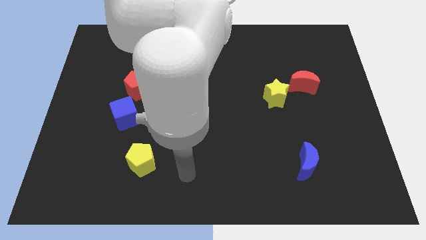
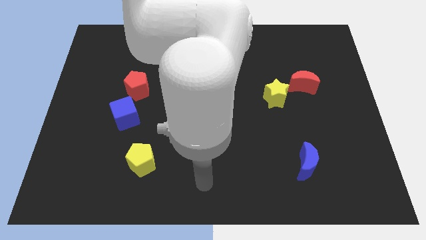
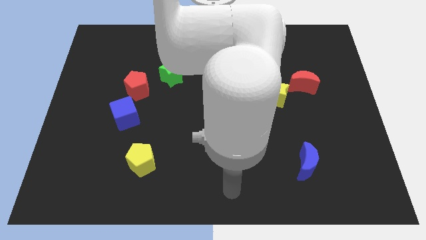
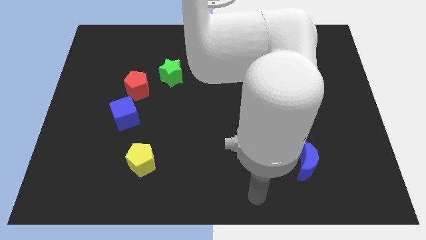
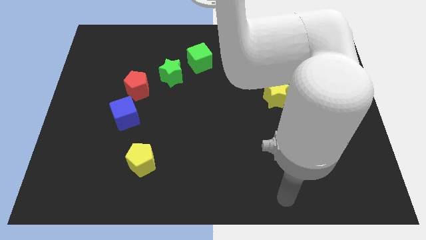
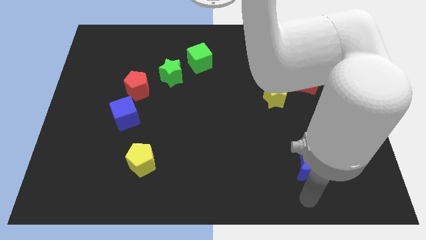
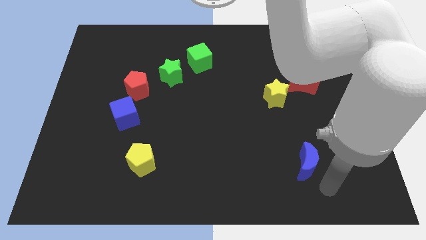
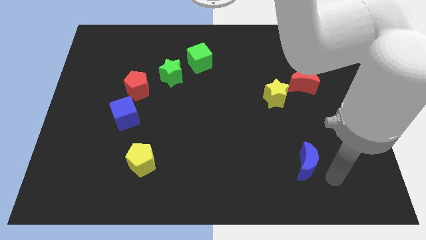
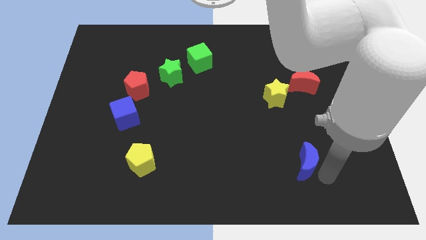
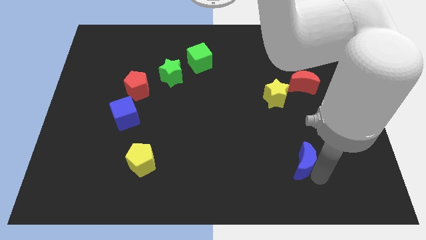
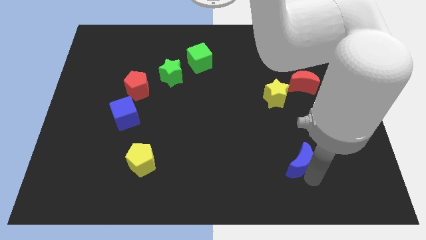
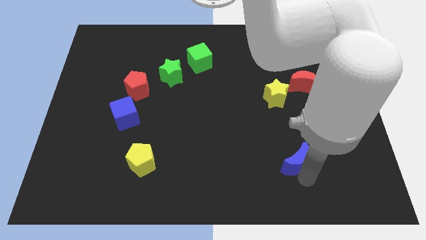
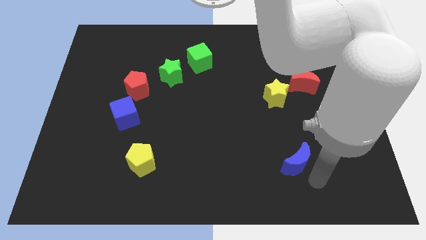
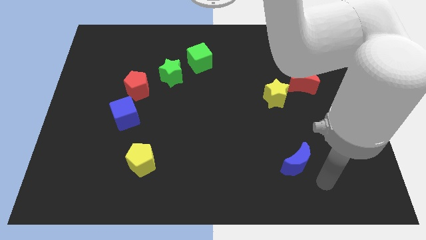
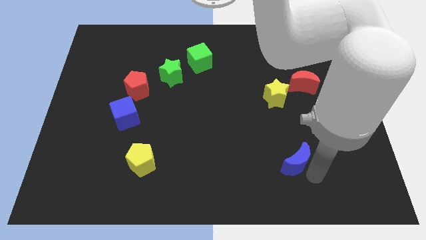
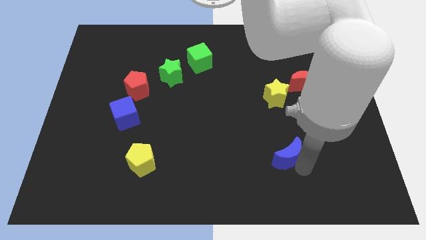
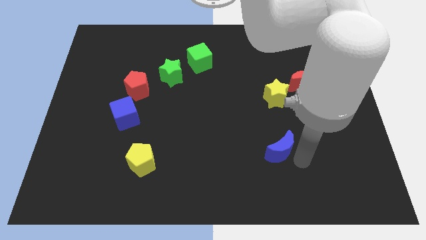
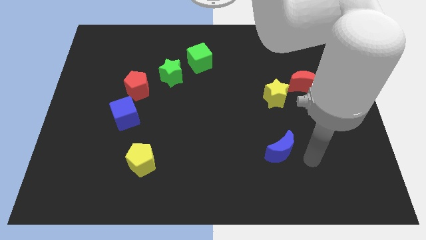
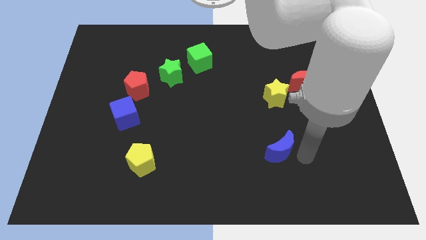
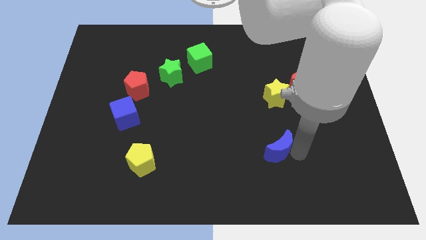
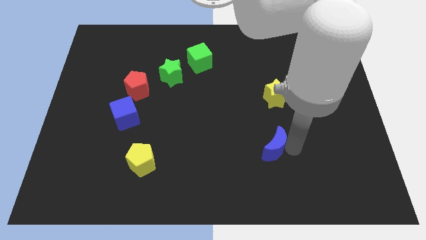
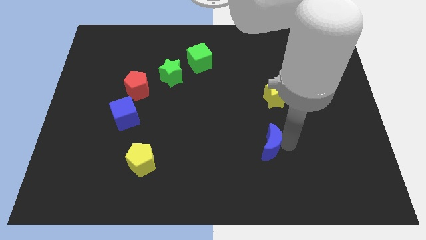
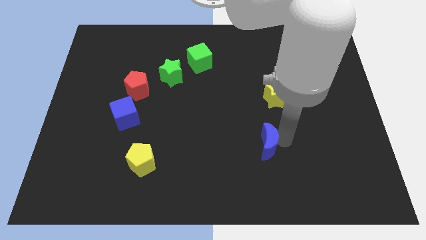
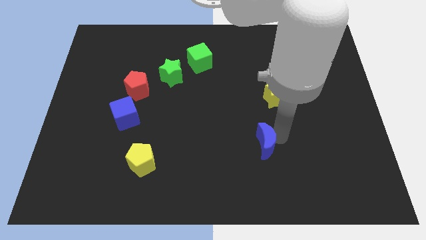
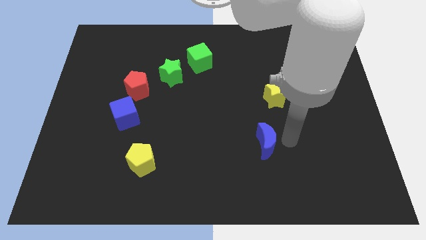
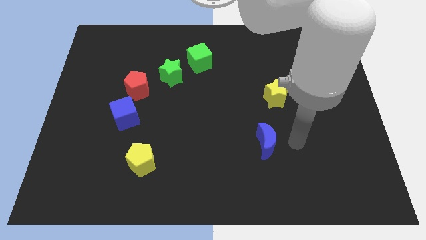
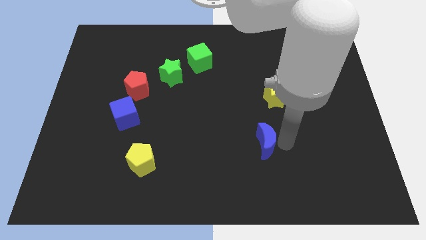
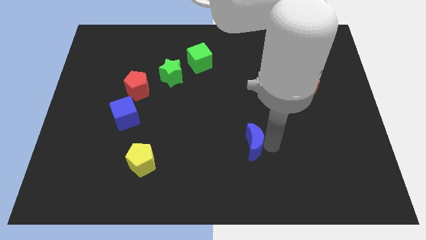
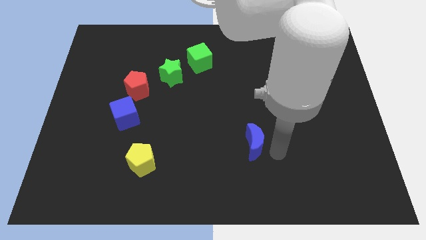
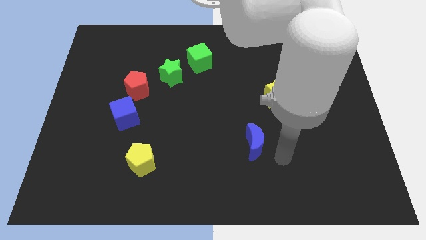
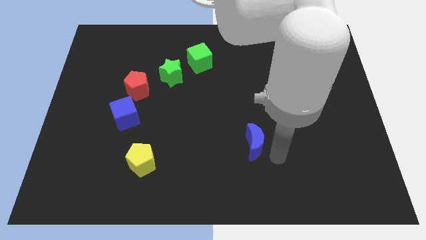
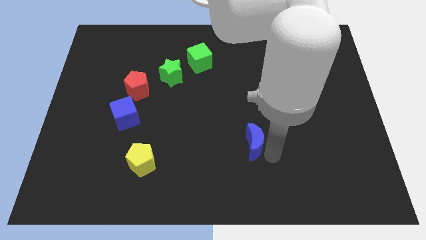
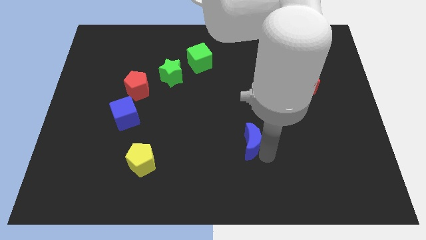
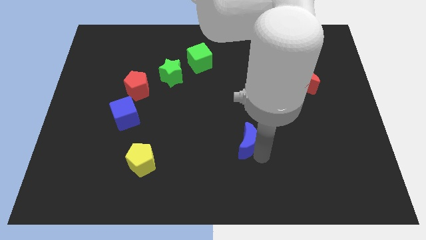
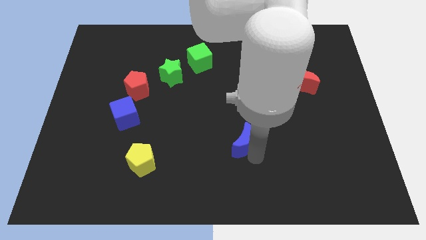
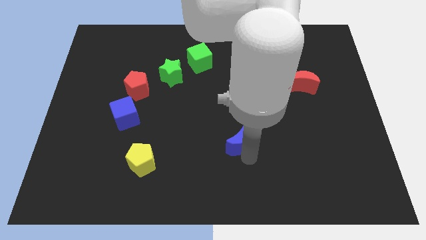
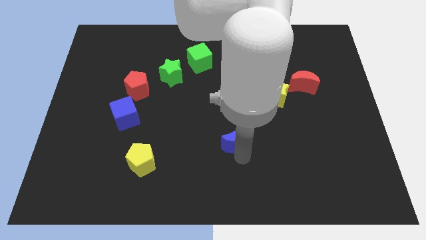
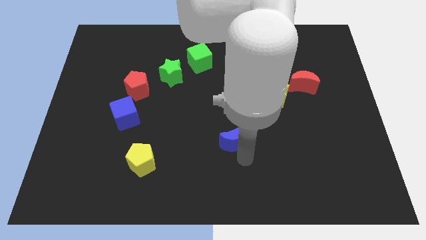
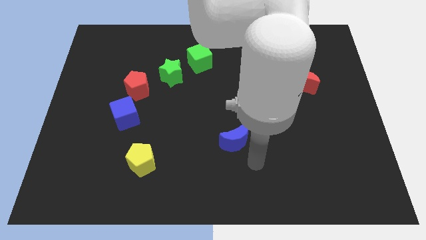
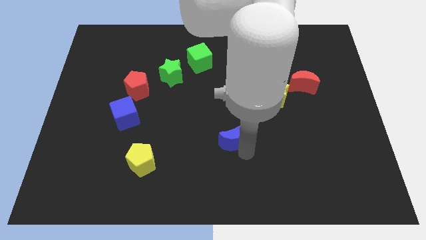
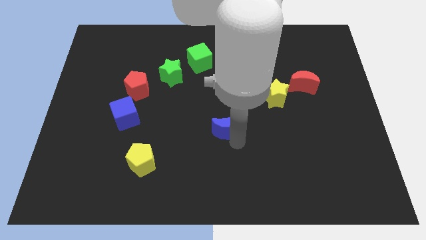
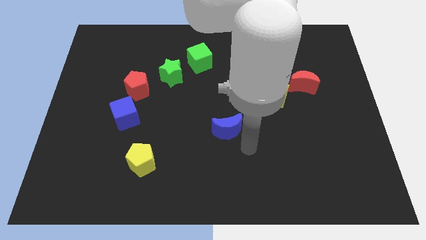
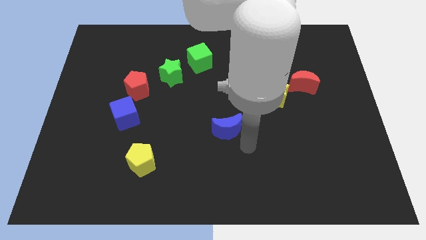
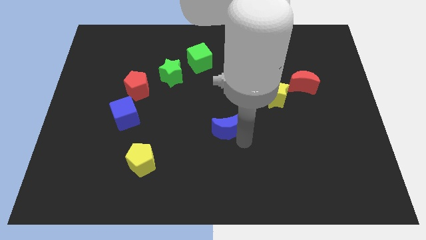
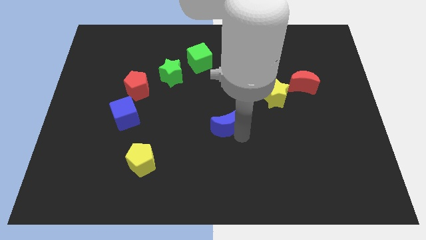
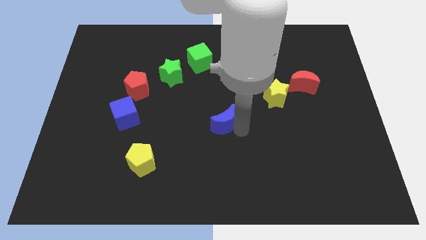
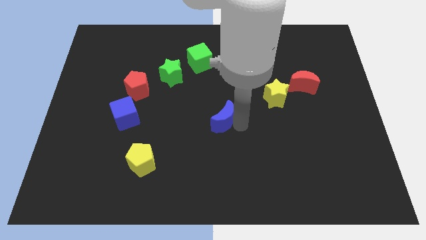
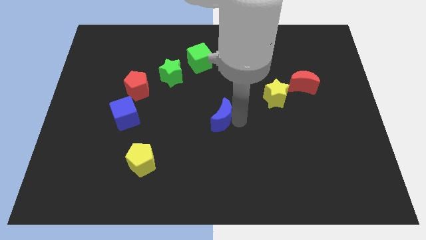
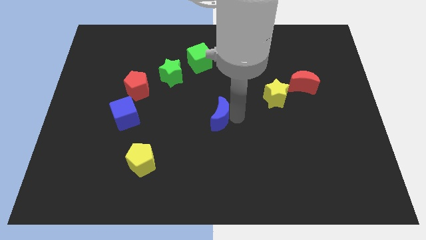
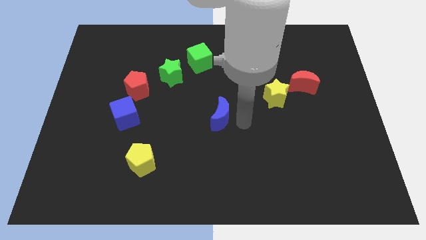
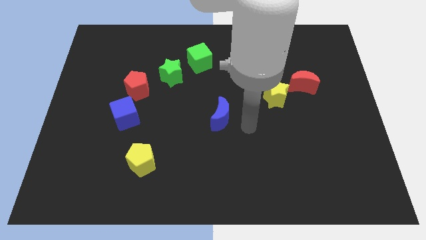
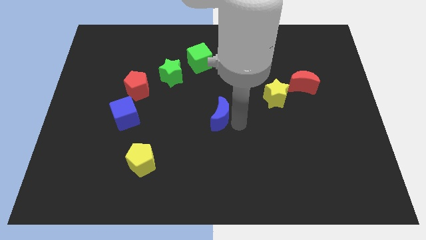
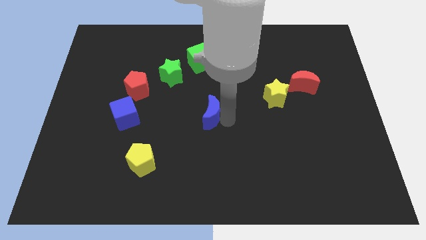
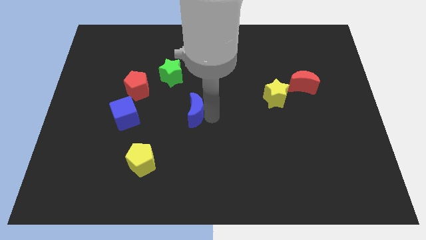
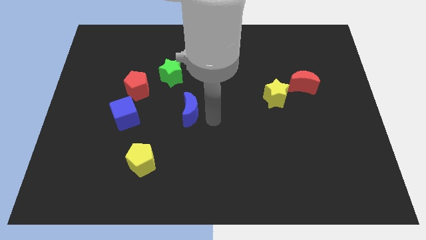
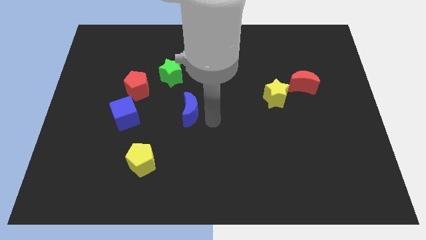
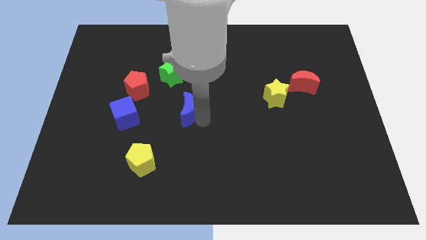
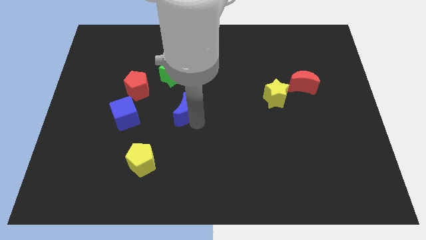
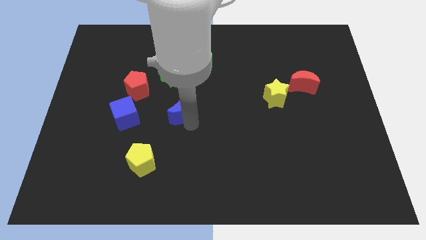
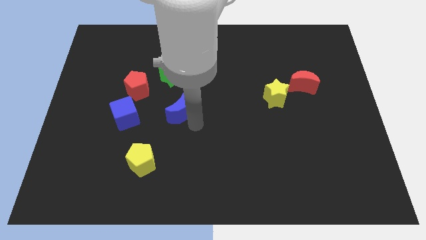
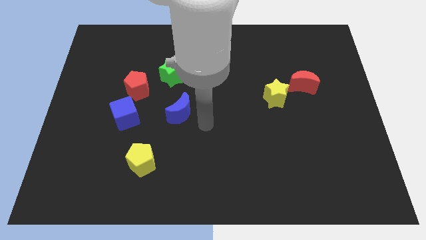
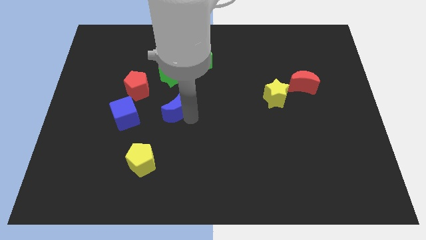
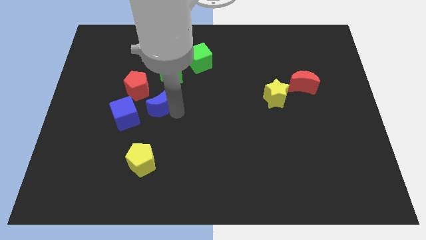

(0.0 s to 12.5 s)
slide the blue moon to the top right side of the blue cube

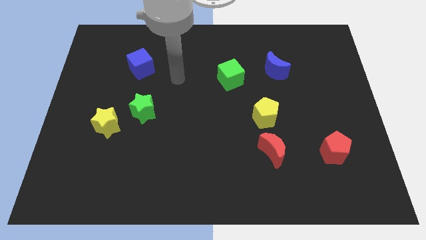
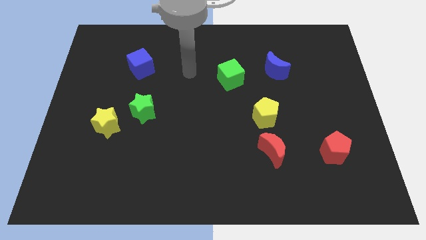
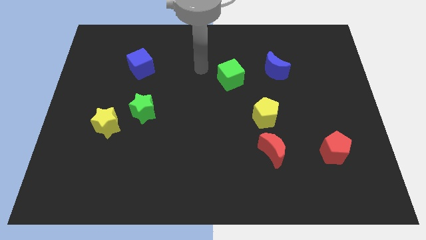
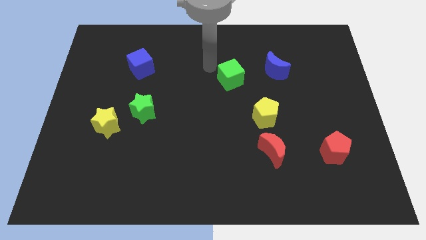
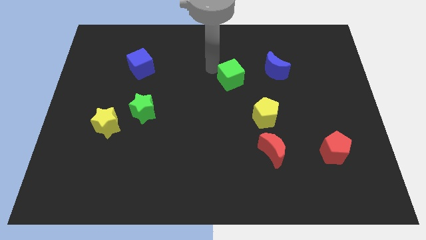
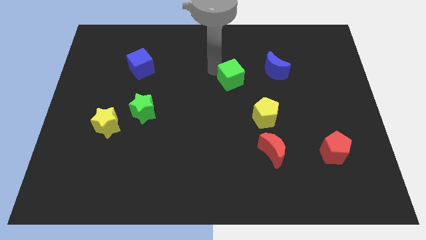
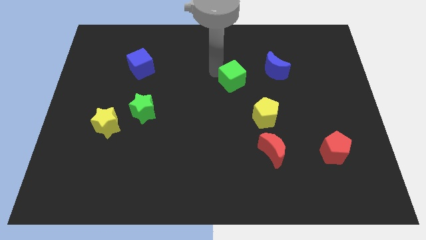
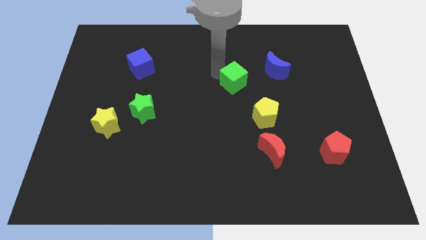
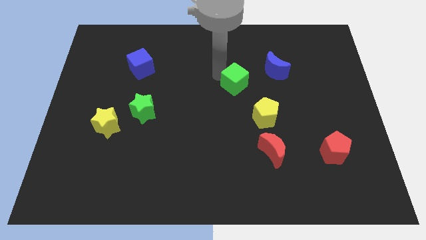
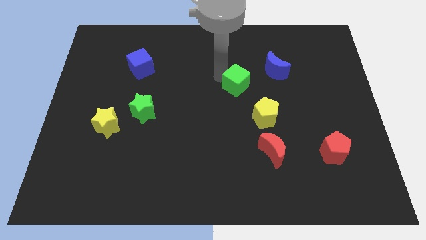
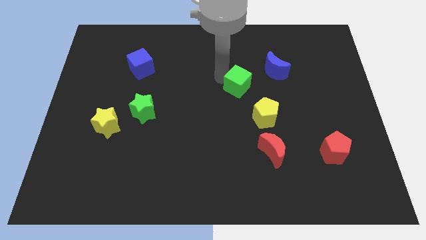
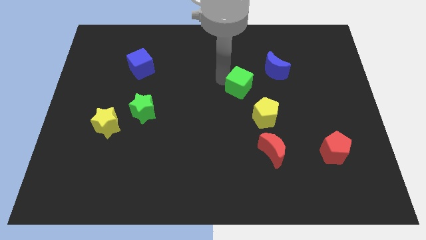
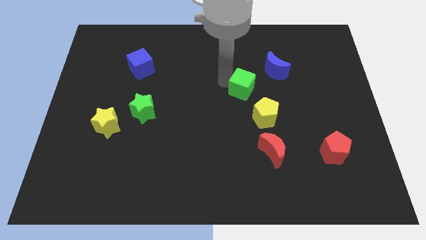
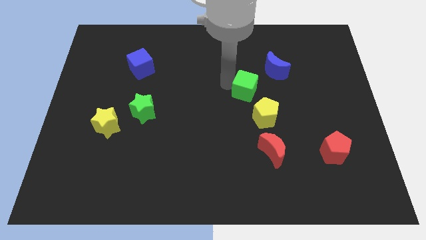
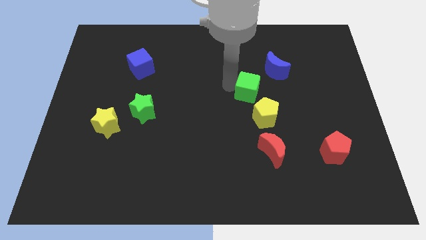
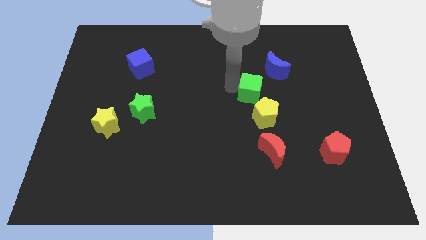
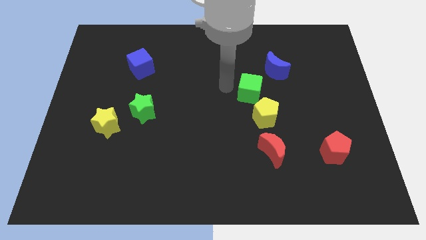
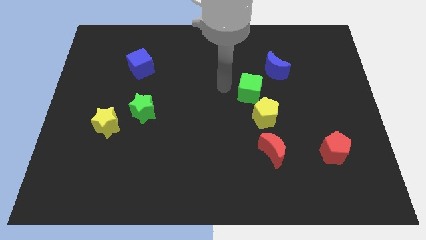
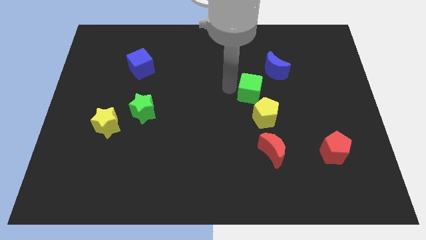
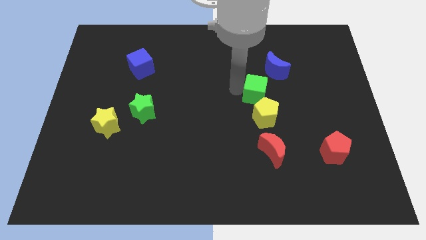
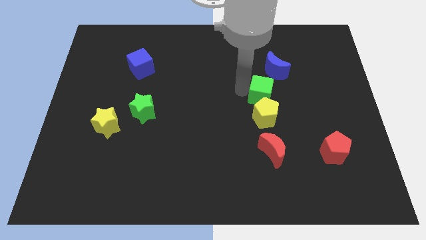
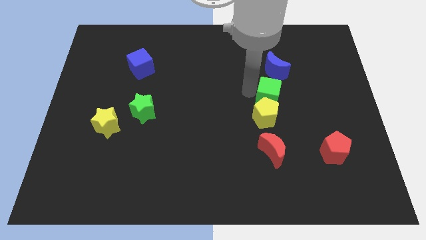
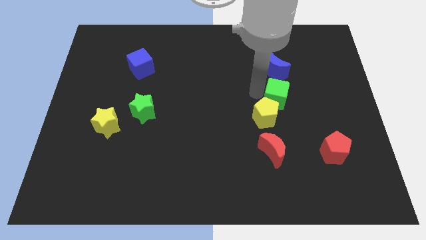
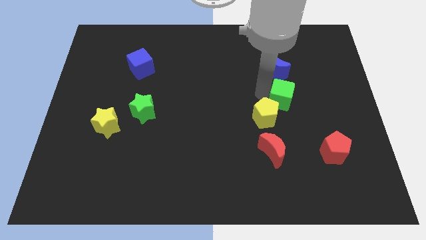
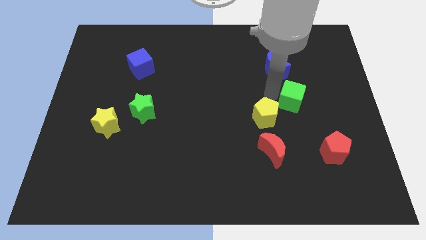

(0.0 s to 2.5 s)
push the green cube to the right of the yellow pentagon
